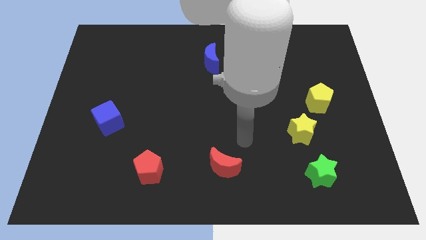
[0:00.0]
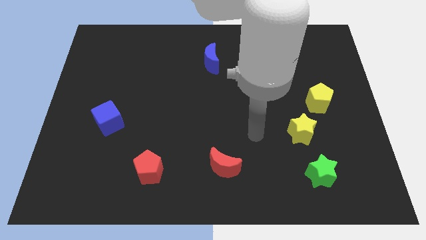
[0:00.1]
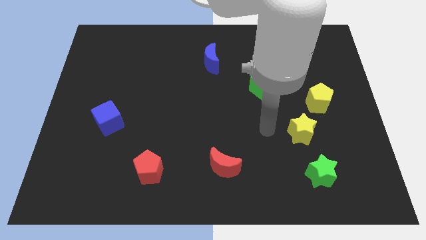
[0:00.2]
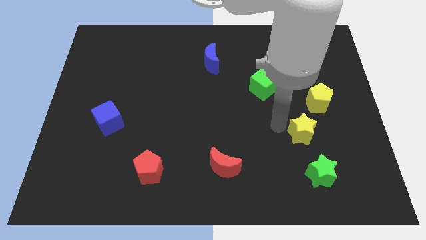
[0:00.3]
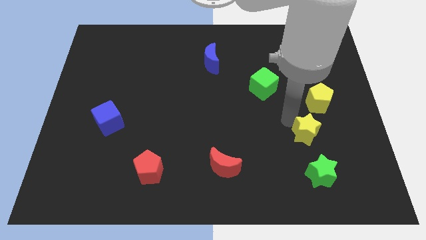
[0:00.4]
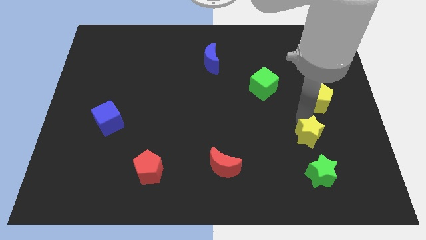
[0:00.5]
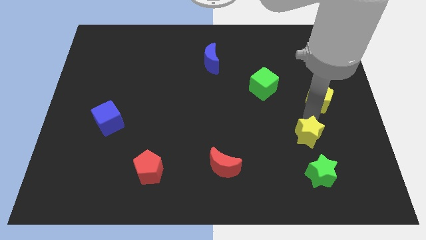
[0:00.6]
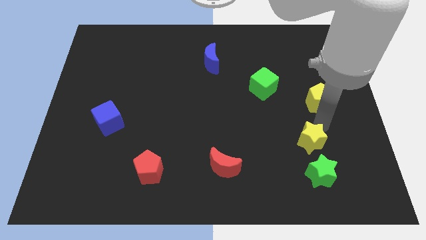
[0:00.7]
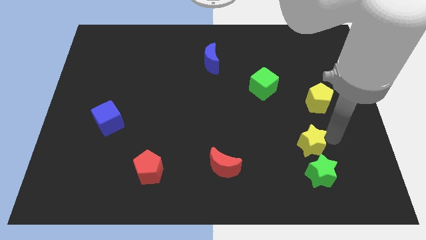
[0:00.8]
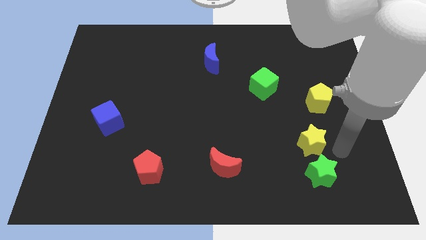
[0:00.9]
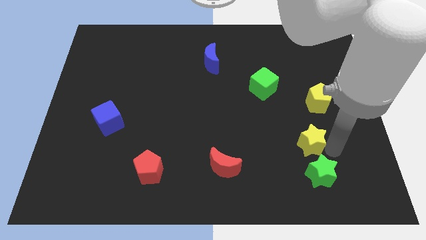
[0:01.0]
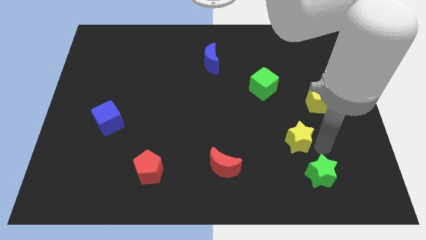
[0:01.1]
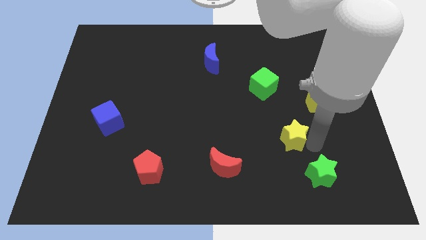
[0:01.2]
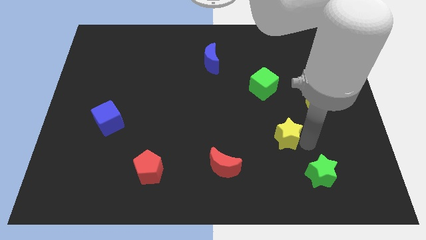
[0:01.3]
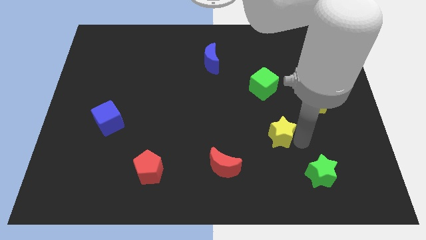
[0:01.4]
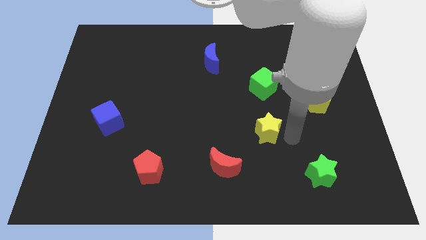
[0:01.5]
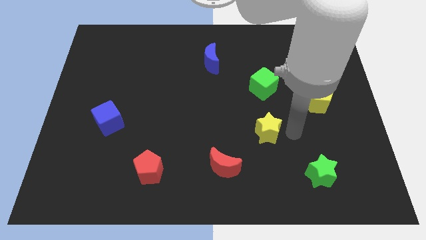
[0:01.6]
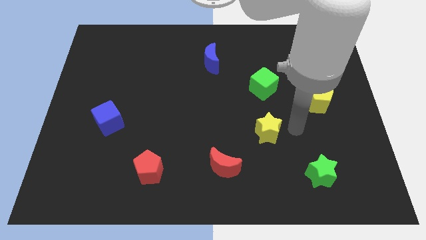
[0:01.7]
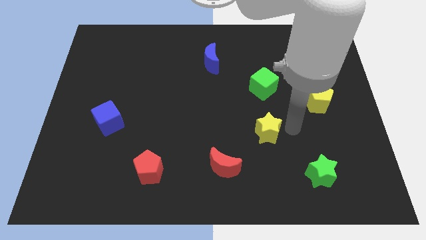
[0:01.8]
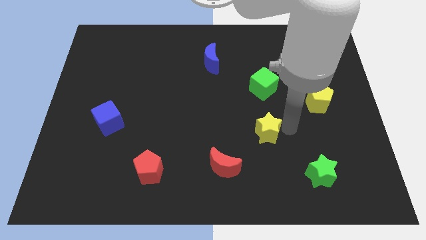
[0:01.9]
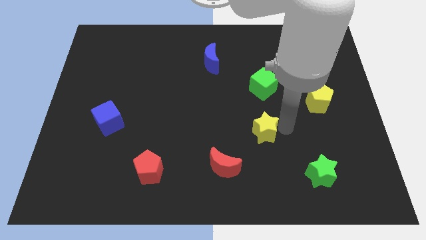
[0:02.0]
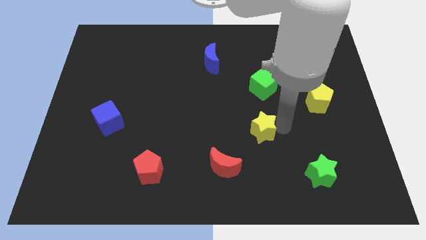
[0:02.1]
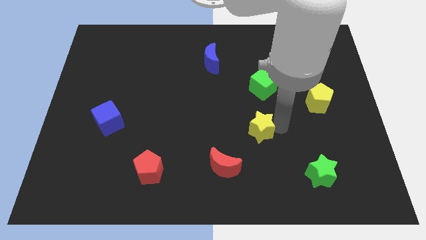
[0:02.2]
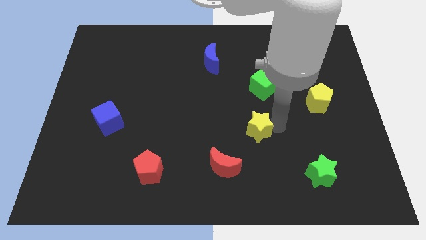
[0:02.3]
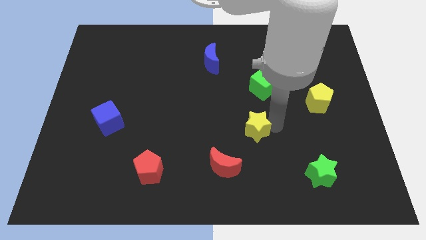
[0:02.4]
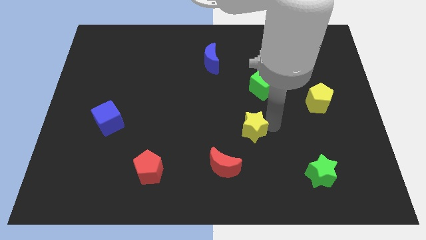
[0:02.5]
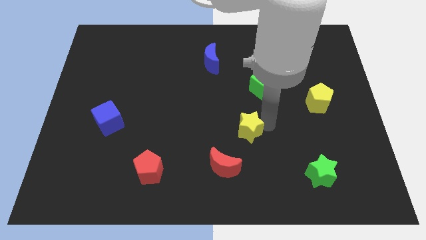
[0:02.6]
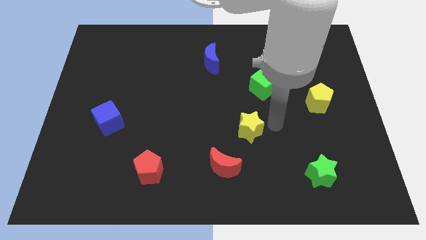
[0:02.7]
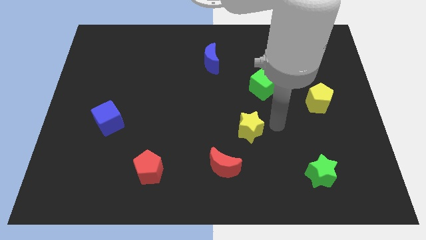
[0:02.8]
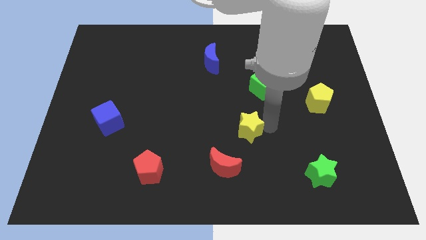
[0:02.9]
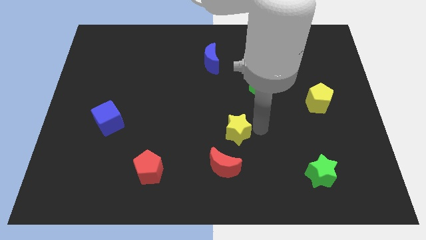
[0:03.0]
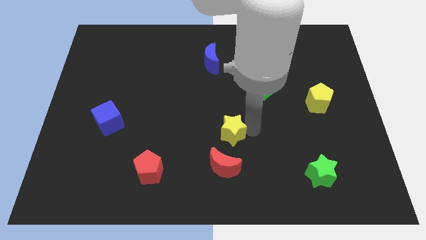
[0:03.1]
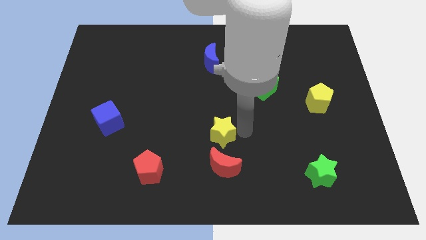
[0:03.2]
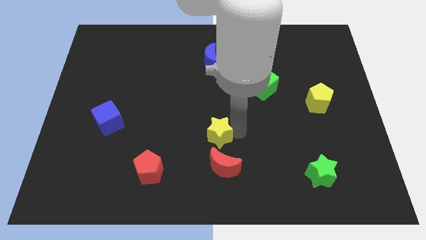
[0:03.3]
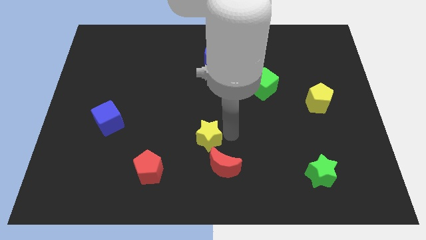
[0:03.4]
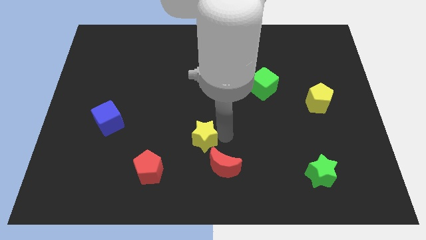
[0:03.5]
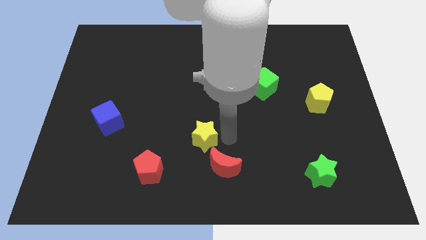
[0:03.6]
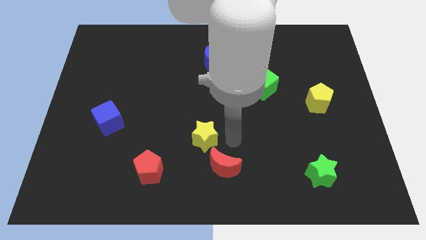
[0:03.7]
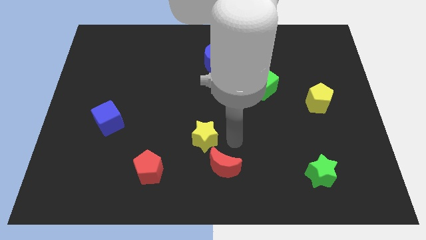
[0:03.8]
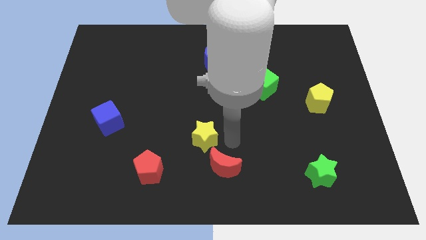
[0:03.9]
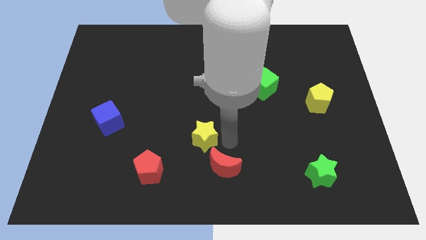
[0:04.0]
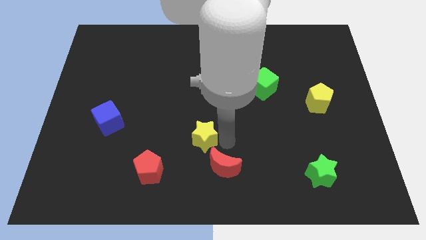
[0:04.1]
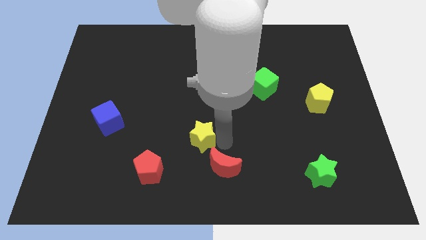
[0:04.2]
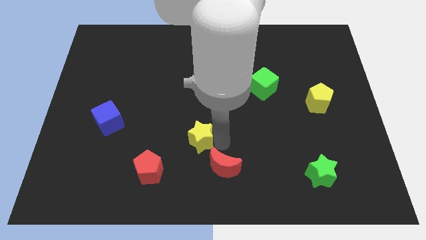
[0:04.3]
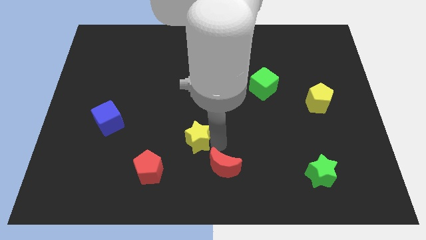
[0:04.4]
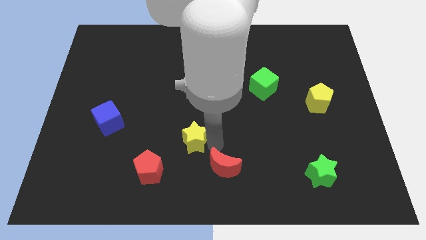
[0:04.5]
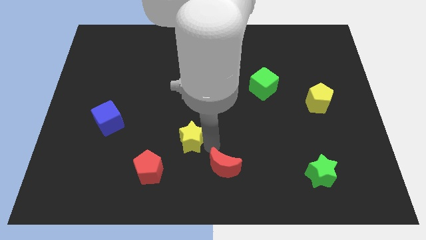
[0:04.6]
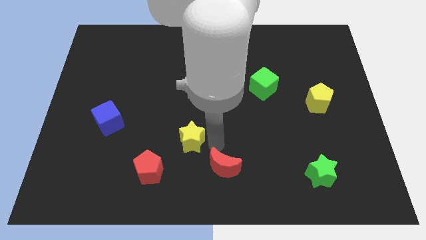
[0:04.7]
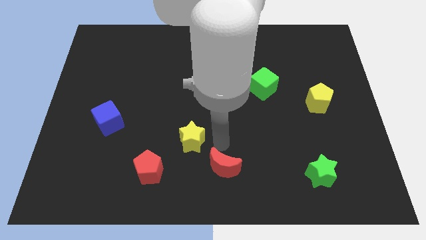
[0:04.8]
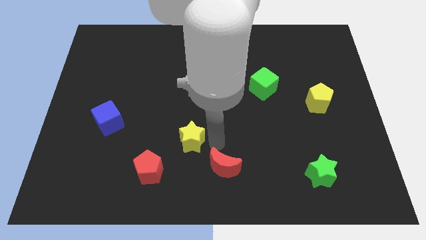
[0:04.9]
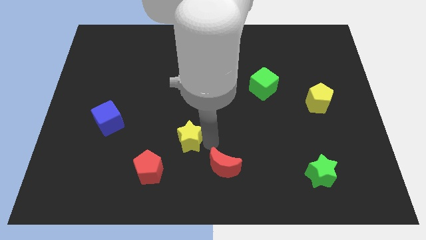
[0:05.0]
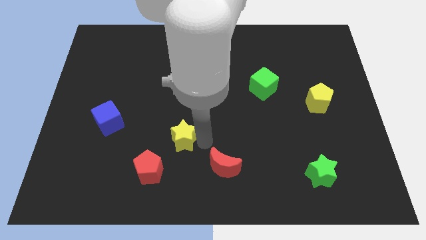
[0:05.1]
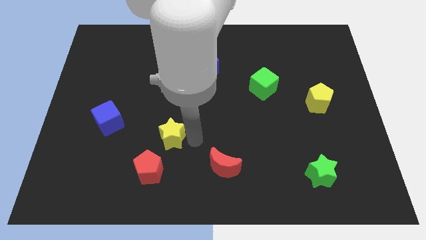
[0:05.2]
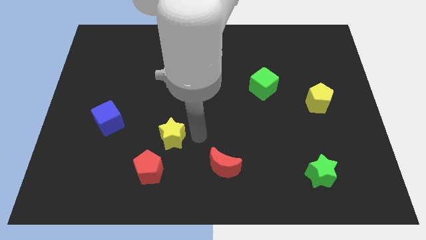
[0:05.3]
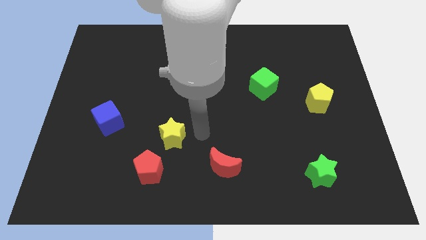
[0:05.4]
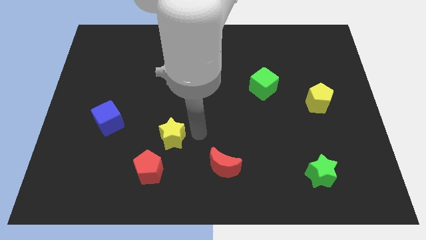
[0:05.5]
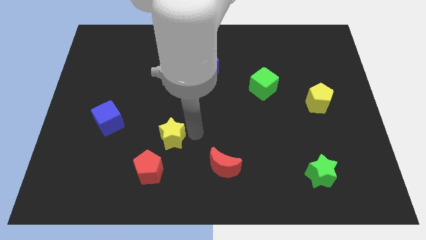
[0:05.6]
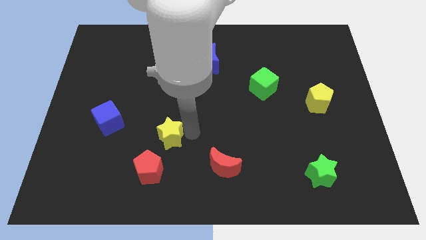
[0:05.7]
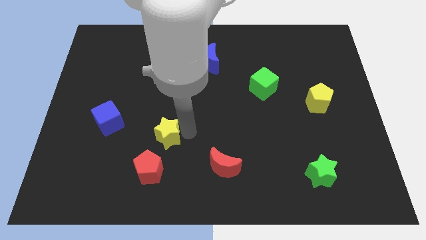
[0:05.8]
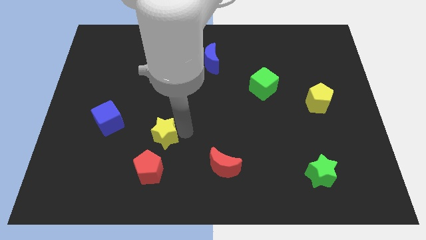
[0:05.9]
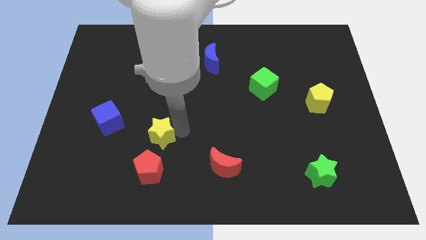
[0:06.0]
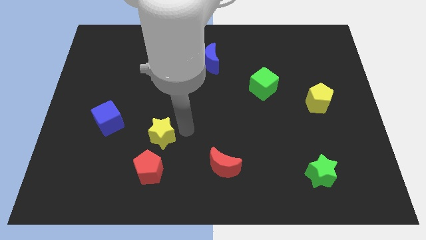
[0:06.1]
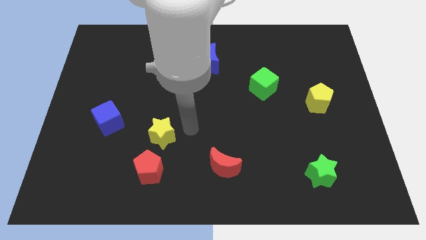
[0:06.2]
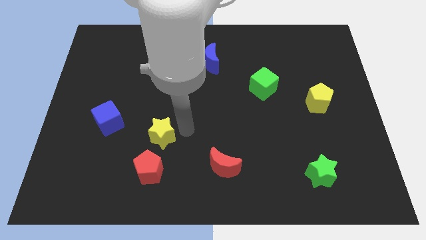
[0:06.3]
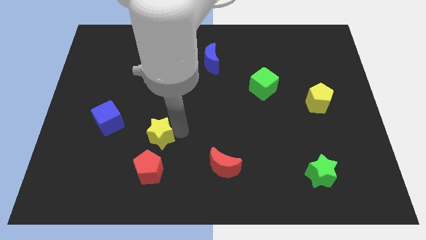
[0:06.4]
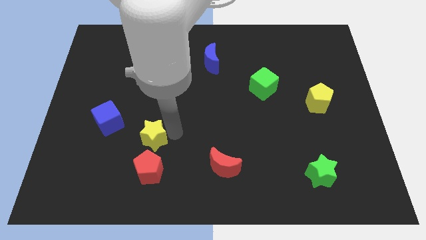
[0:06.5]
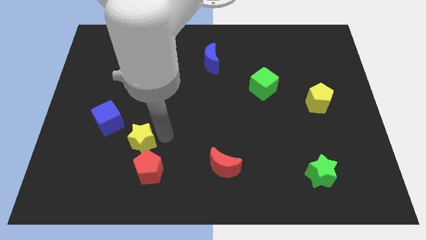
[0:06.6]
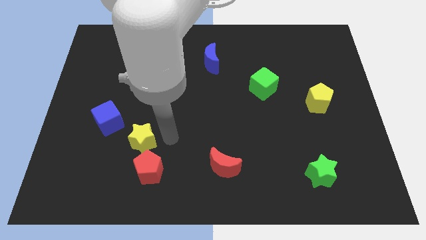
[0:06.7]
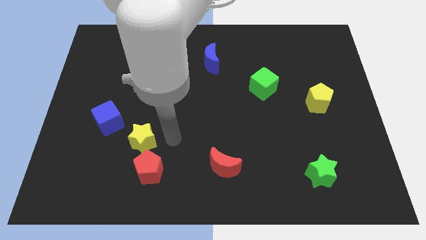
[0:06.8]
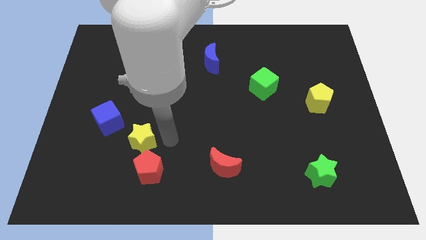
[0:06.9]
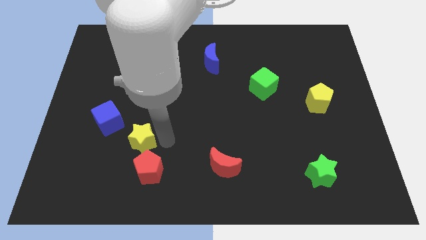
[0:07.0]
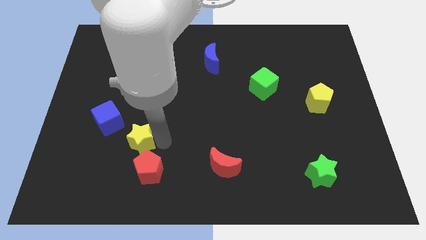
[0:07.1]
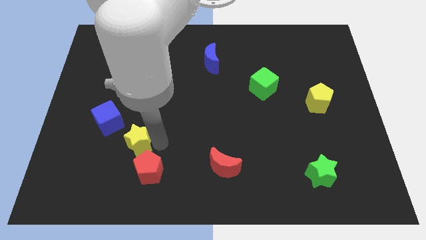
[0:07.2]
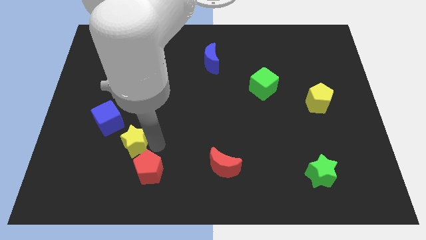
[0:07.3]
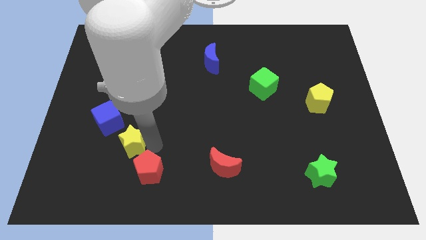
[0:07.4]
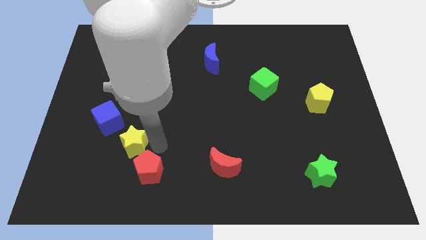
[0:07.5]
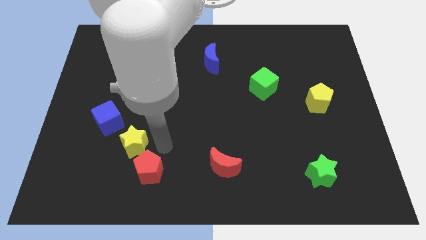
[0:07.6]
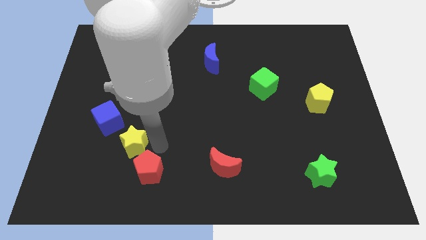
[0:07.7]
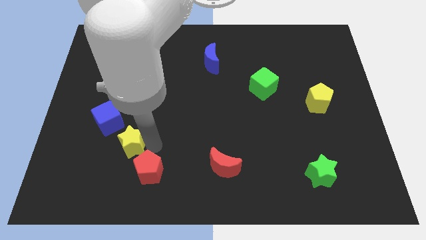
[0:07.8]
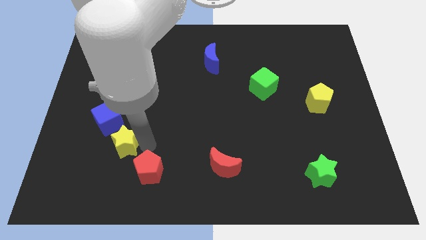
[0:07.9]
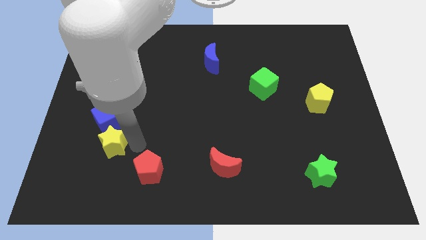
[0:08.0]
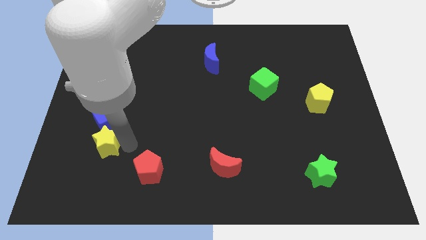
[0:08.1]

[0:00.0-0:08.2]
put the yellow star diagonally down and to the left of the blue cube
